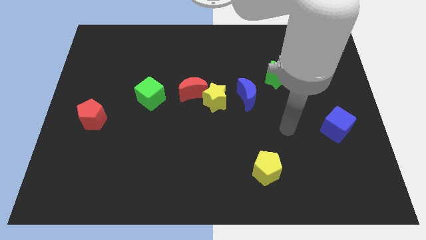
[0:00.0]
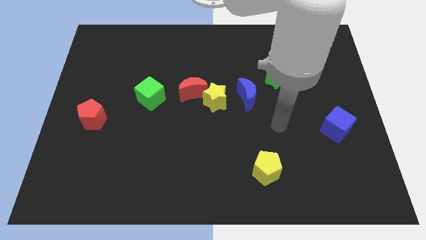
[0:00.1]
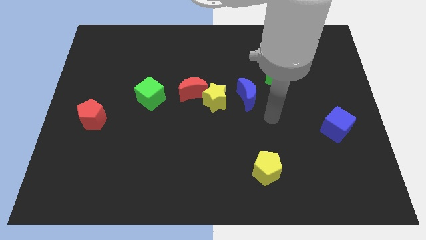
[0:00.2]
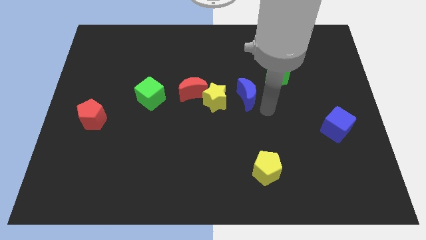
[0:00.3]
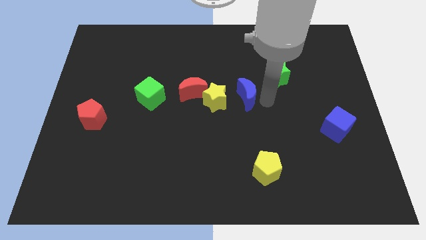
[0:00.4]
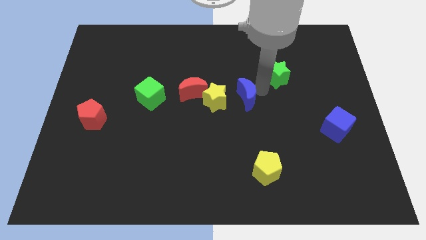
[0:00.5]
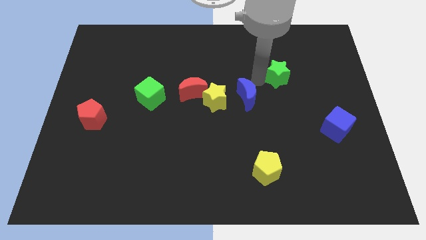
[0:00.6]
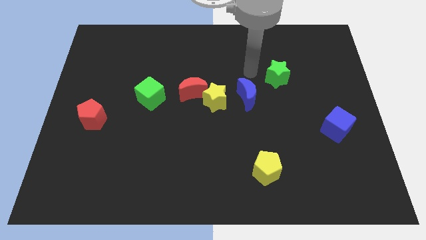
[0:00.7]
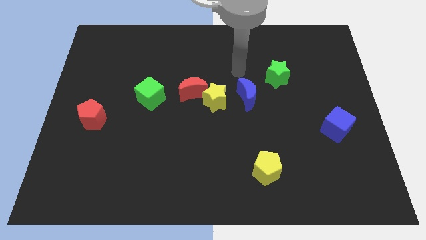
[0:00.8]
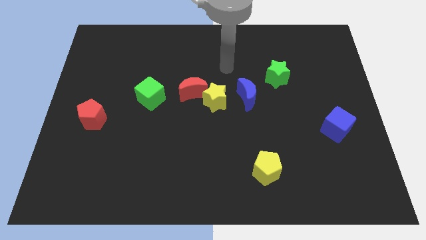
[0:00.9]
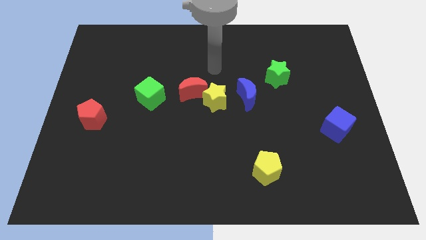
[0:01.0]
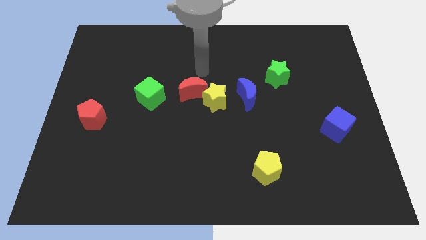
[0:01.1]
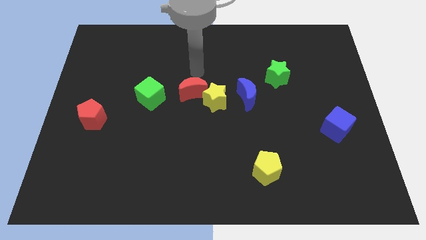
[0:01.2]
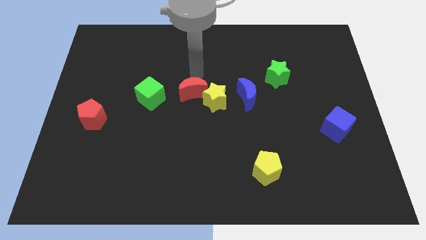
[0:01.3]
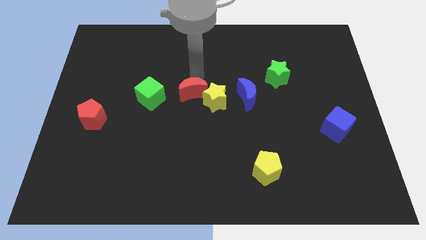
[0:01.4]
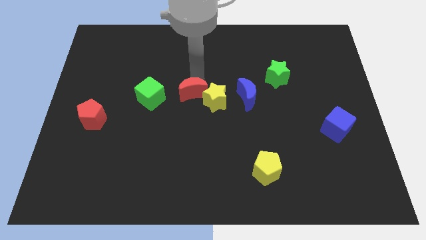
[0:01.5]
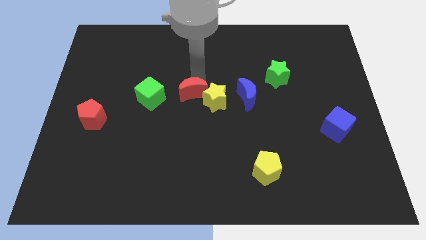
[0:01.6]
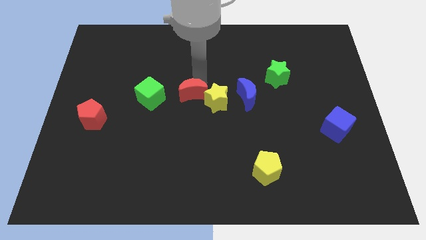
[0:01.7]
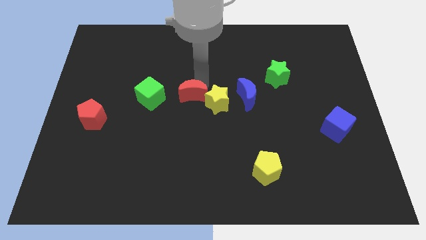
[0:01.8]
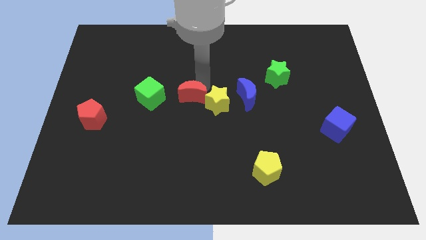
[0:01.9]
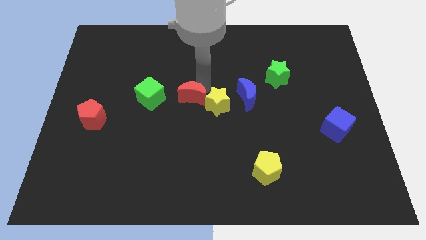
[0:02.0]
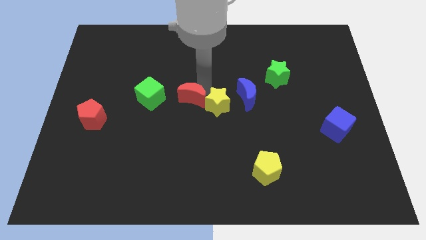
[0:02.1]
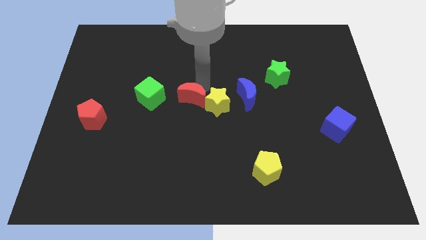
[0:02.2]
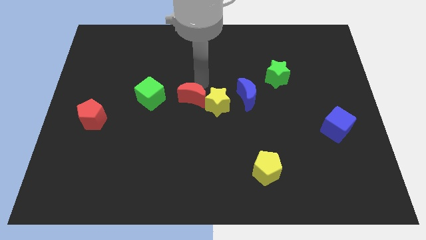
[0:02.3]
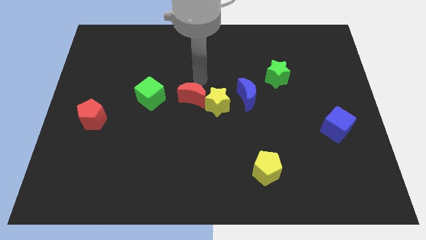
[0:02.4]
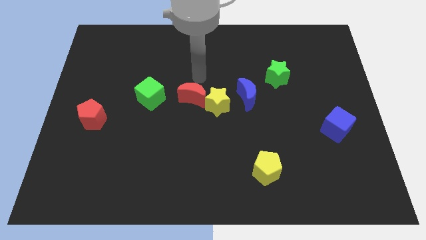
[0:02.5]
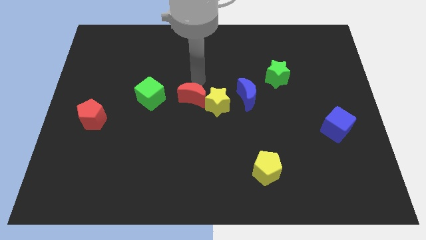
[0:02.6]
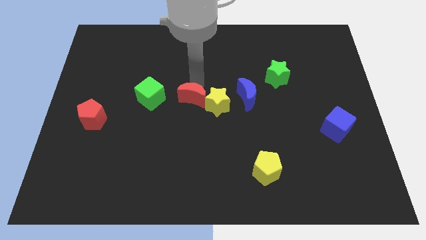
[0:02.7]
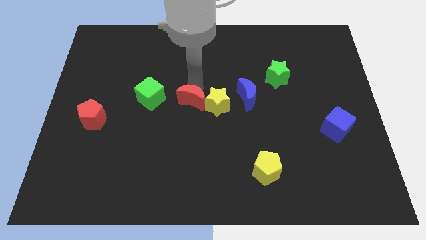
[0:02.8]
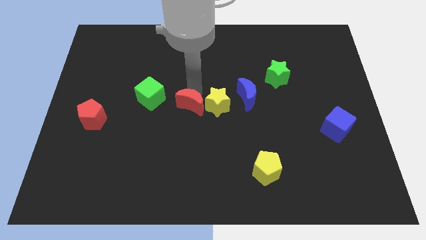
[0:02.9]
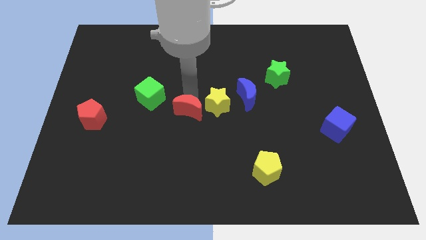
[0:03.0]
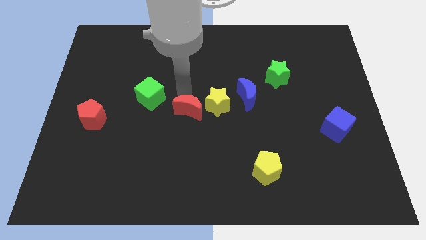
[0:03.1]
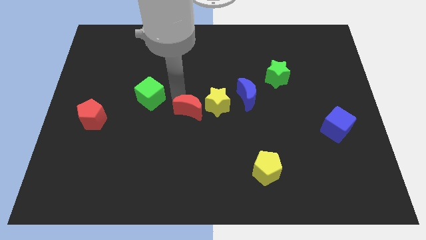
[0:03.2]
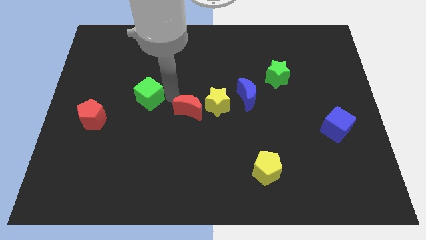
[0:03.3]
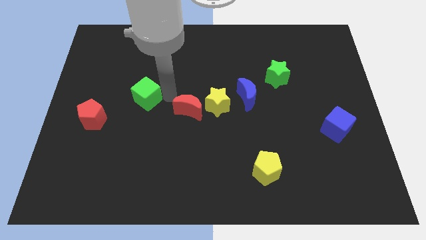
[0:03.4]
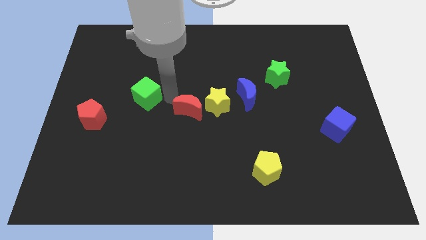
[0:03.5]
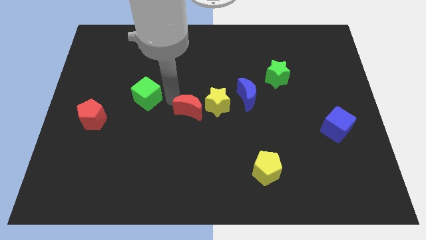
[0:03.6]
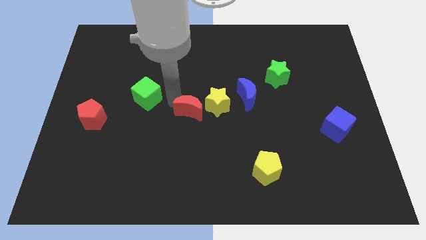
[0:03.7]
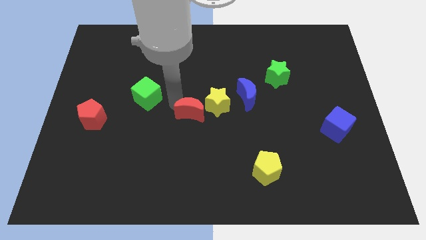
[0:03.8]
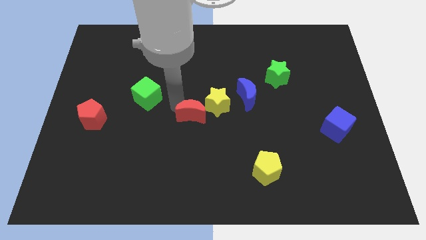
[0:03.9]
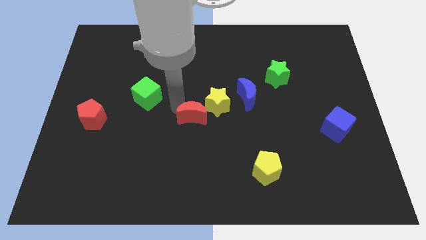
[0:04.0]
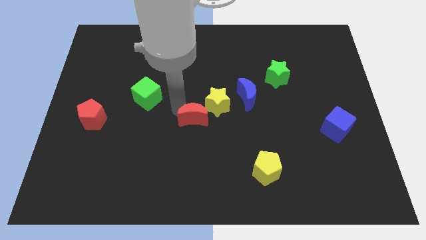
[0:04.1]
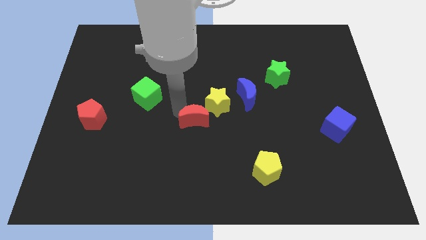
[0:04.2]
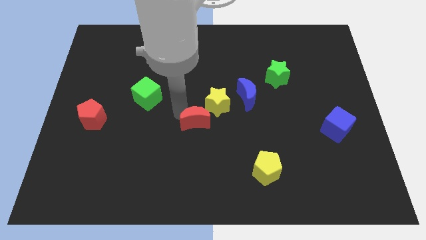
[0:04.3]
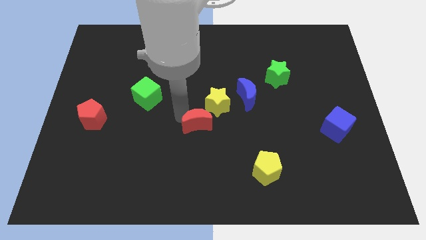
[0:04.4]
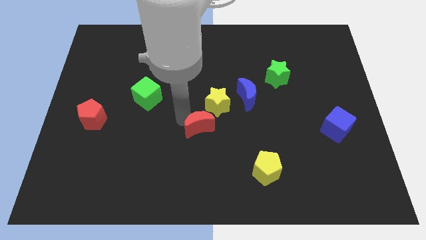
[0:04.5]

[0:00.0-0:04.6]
push the red moon a bit downwards and then right

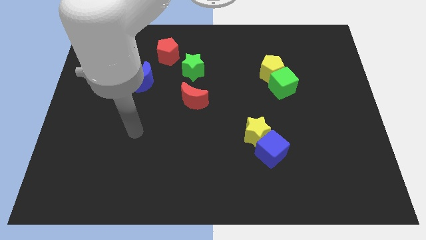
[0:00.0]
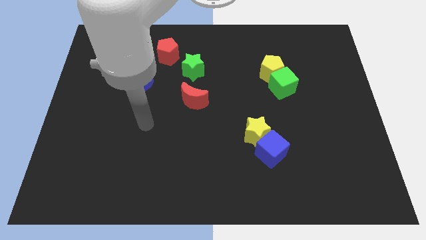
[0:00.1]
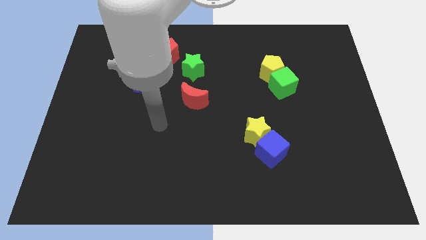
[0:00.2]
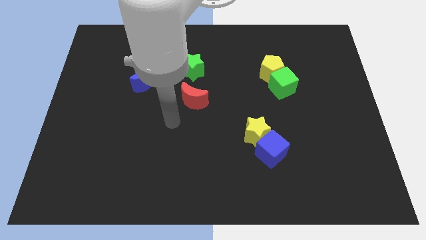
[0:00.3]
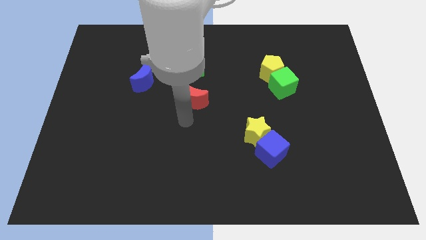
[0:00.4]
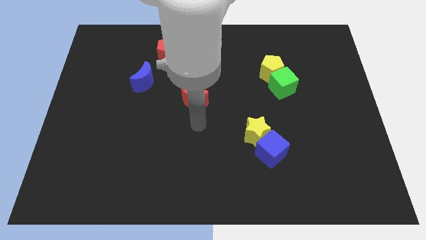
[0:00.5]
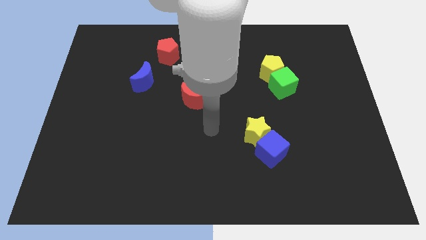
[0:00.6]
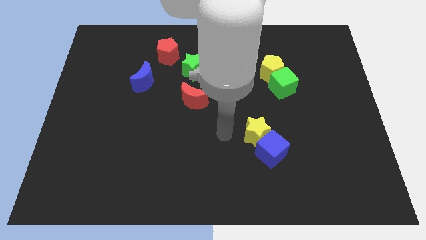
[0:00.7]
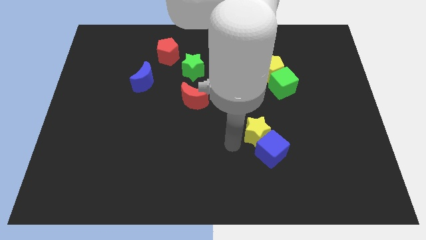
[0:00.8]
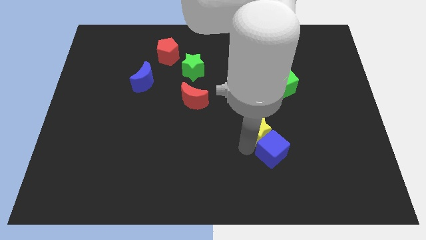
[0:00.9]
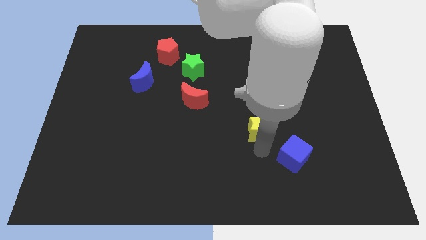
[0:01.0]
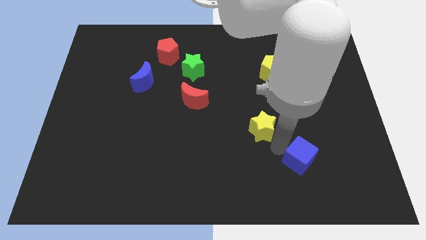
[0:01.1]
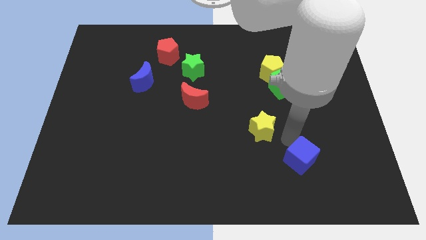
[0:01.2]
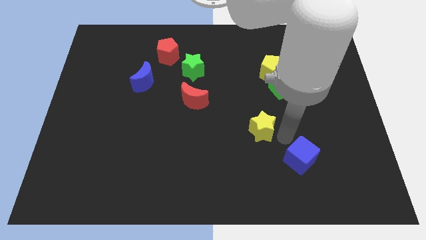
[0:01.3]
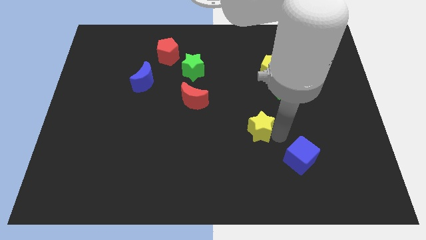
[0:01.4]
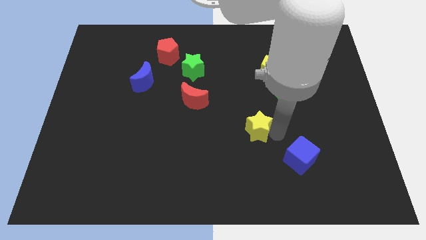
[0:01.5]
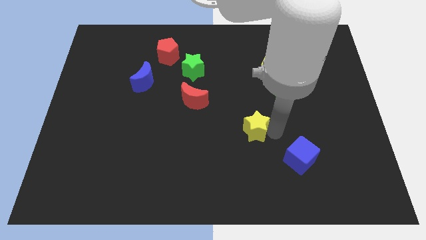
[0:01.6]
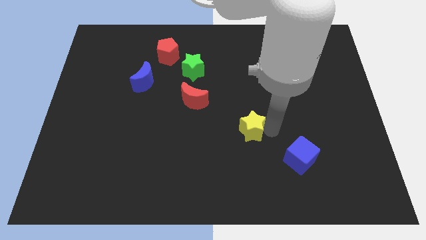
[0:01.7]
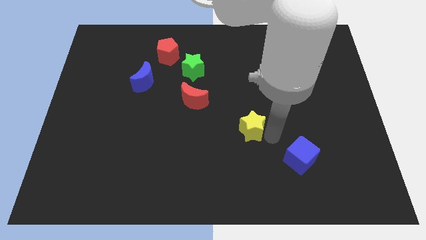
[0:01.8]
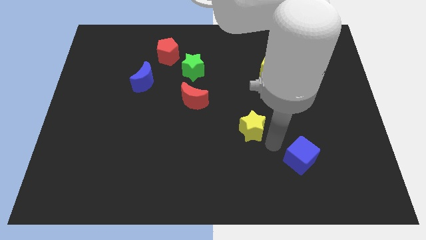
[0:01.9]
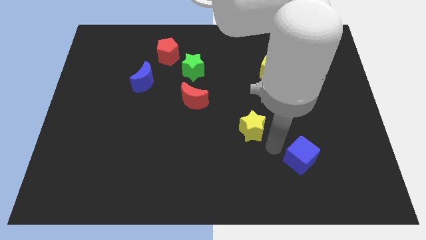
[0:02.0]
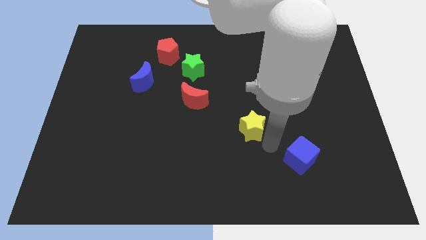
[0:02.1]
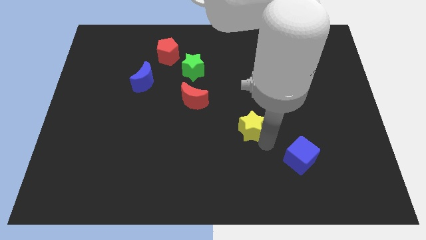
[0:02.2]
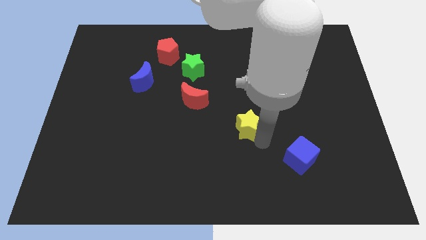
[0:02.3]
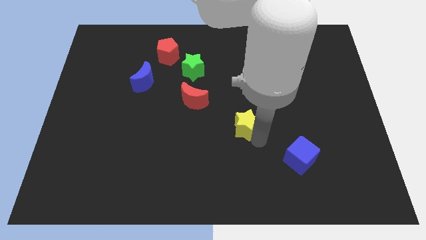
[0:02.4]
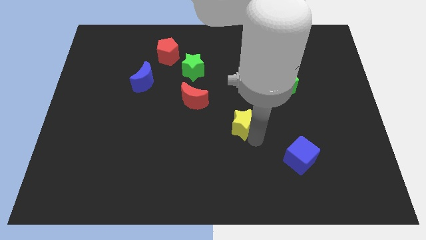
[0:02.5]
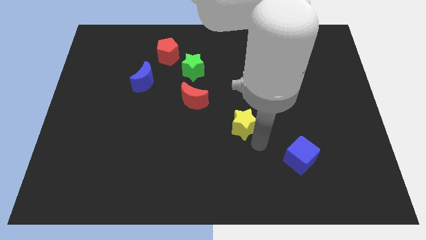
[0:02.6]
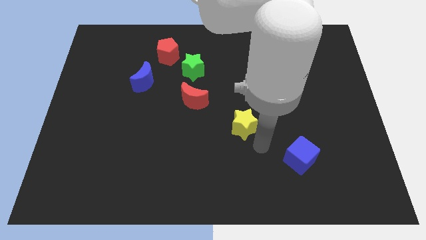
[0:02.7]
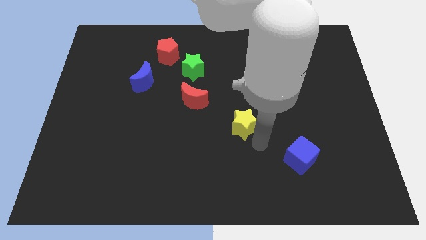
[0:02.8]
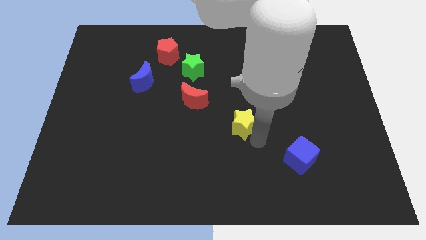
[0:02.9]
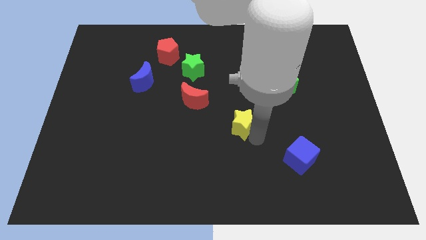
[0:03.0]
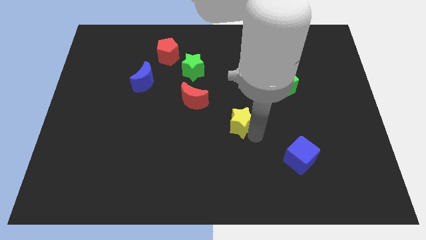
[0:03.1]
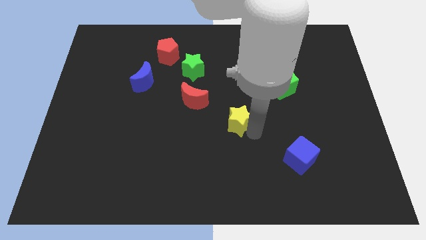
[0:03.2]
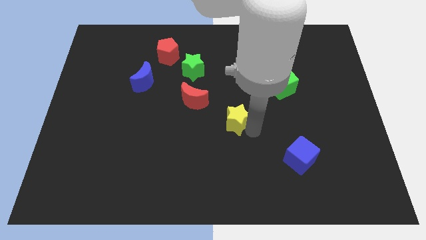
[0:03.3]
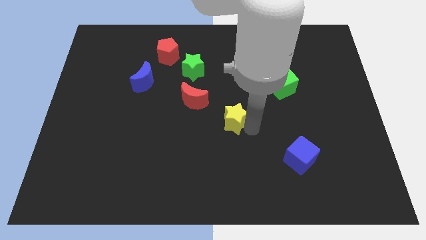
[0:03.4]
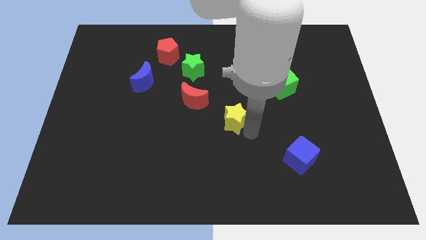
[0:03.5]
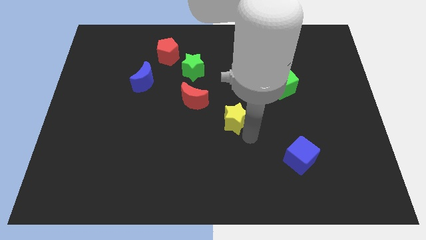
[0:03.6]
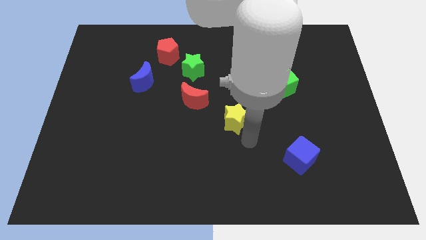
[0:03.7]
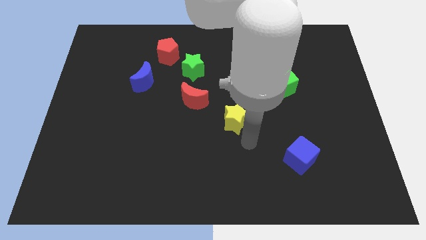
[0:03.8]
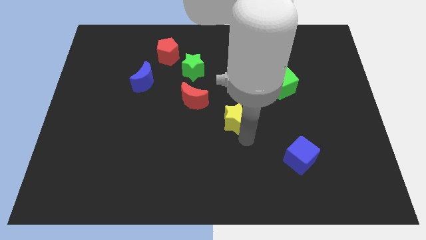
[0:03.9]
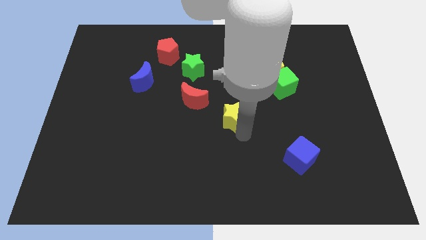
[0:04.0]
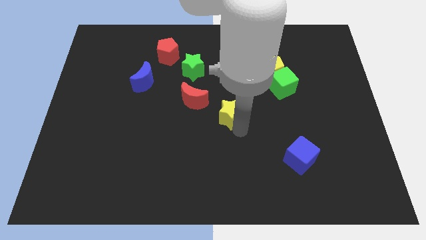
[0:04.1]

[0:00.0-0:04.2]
move the yellow star upwards and to the left diagonally a bit
